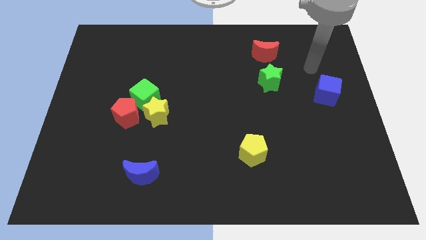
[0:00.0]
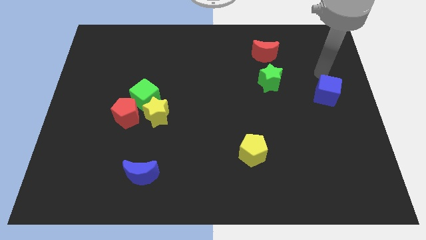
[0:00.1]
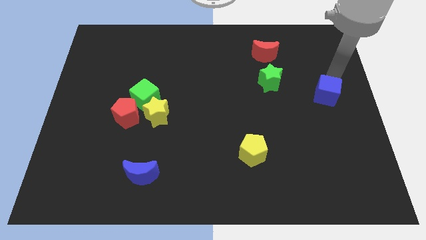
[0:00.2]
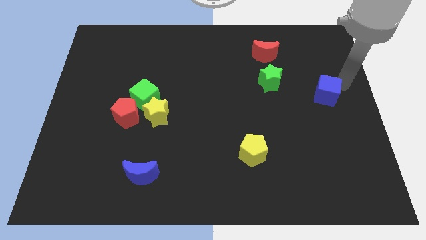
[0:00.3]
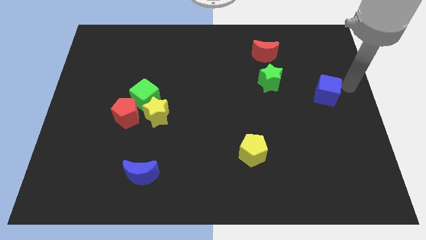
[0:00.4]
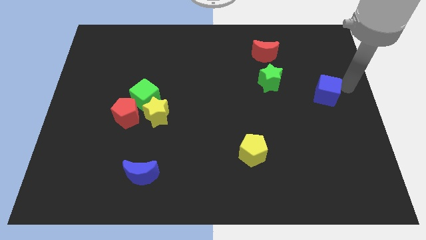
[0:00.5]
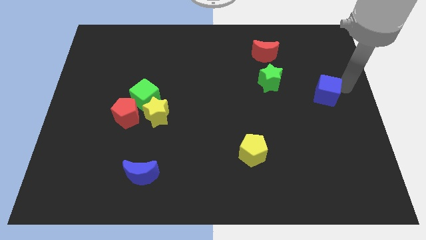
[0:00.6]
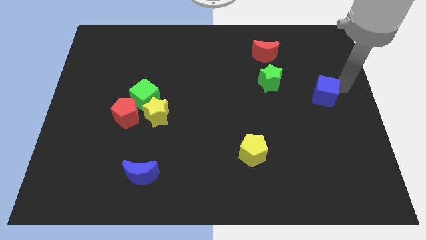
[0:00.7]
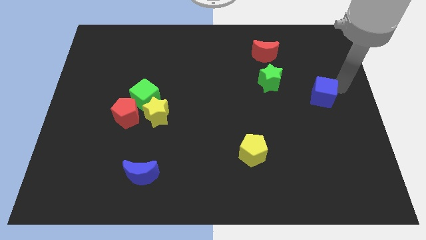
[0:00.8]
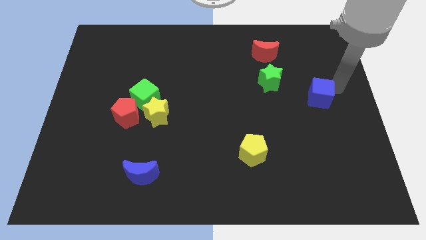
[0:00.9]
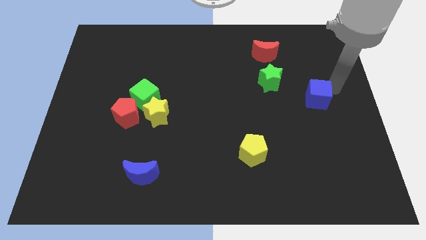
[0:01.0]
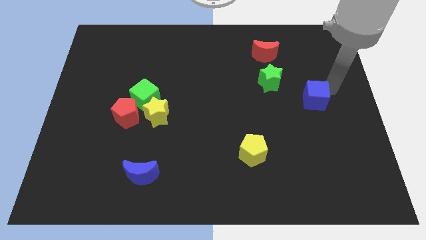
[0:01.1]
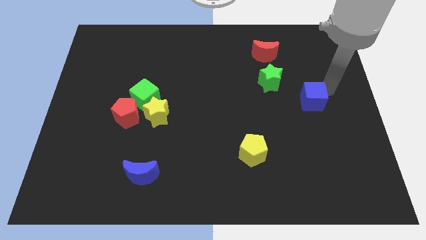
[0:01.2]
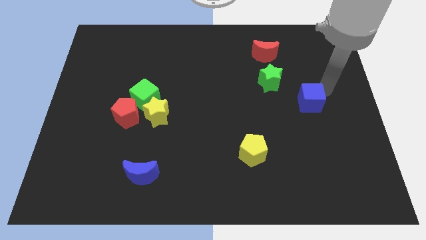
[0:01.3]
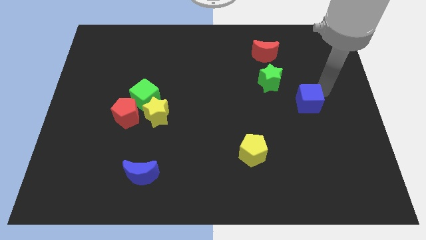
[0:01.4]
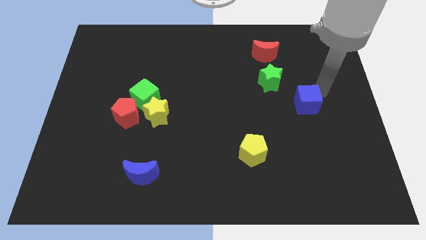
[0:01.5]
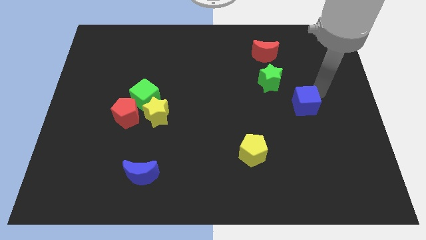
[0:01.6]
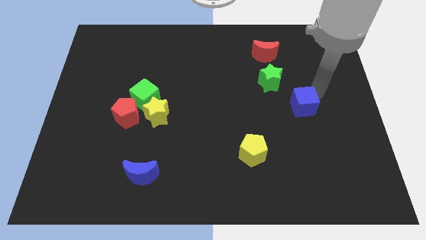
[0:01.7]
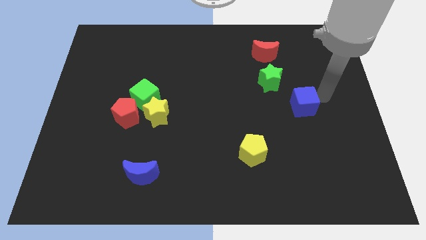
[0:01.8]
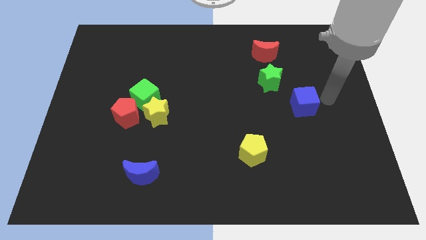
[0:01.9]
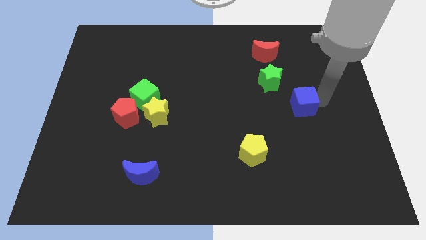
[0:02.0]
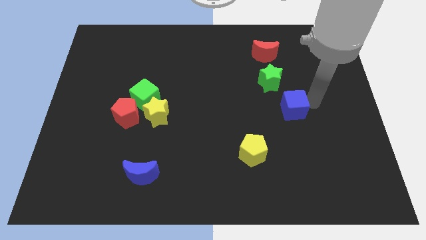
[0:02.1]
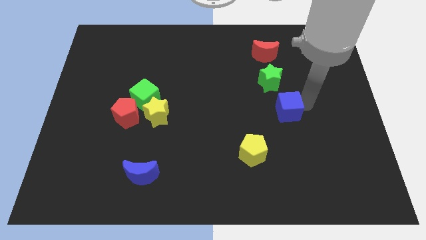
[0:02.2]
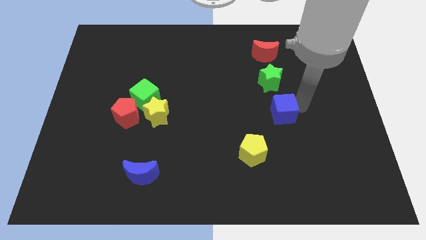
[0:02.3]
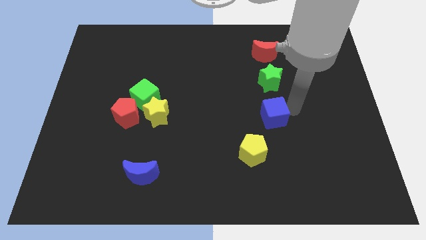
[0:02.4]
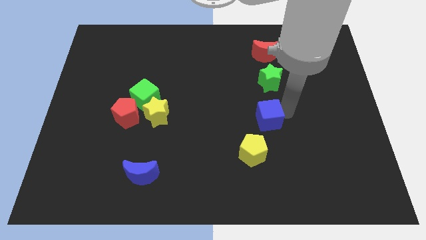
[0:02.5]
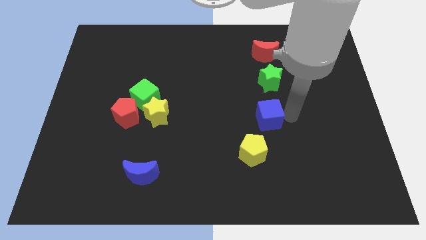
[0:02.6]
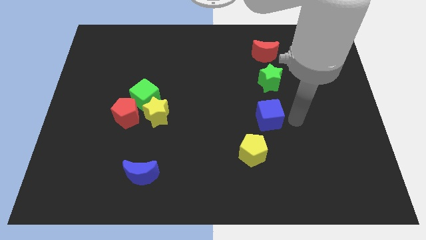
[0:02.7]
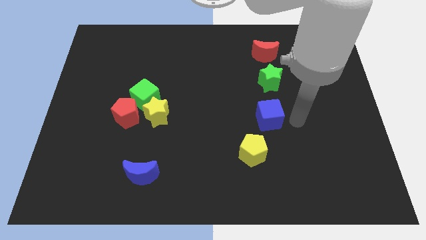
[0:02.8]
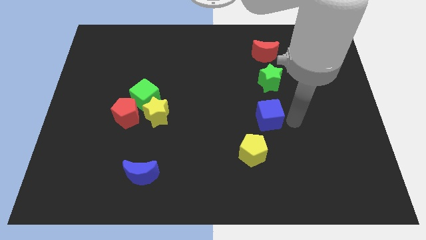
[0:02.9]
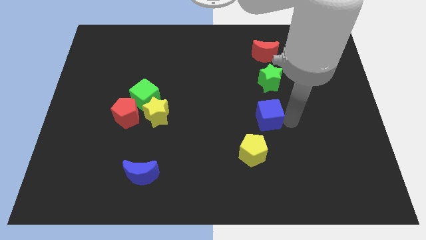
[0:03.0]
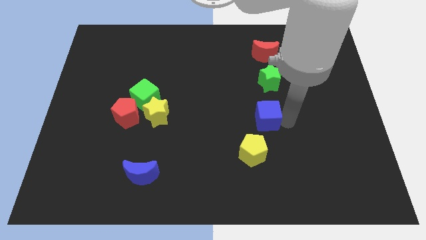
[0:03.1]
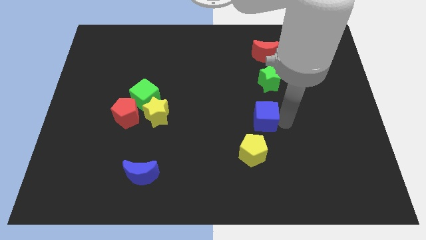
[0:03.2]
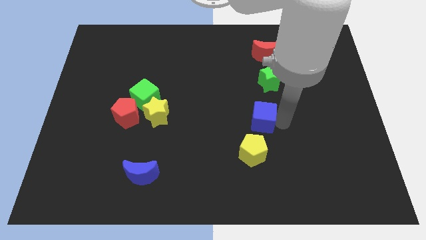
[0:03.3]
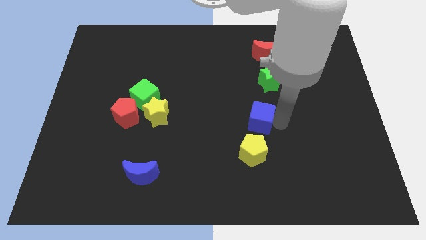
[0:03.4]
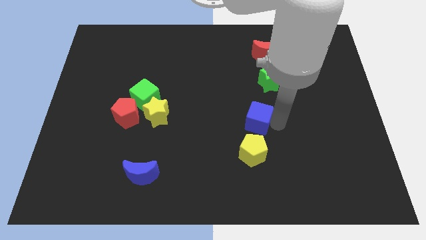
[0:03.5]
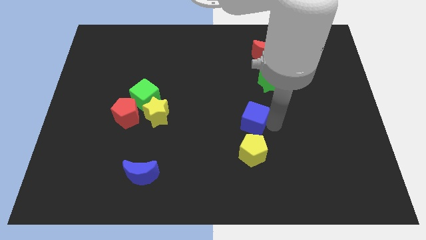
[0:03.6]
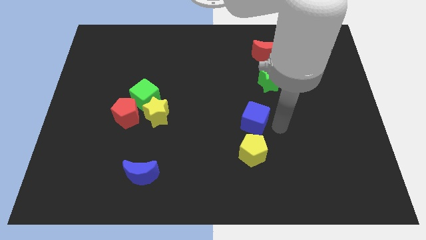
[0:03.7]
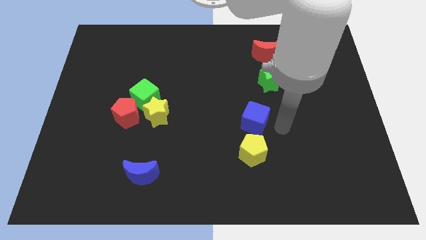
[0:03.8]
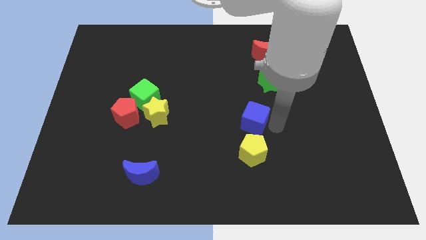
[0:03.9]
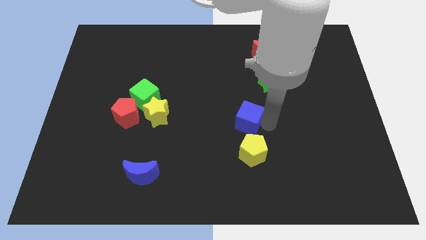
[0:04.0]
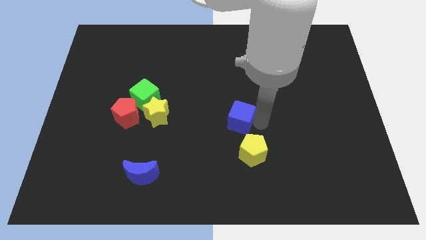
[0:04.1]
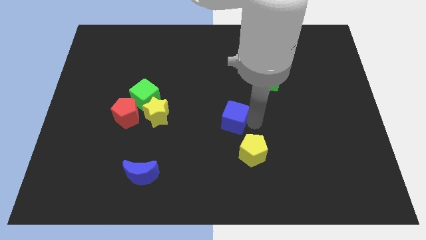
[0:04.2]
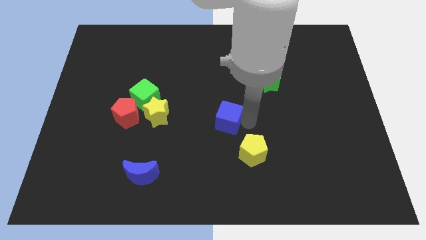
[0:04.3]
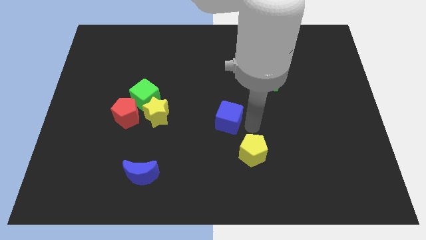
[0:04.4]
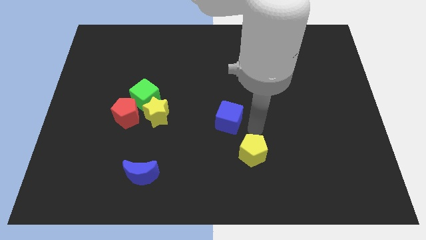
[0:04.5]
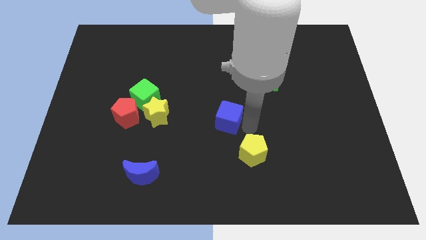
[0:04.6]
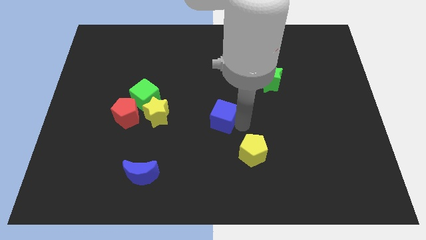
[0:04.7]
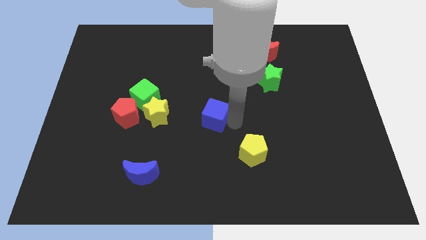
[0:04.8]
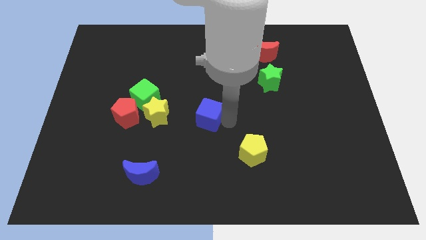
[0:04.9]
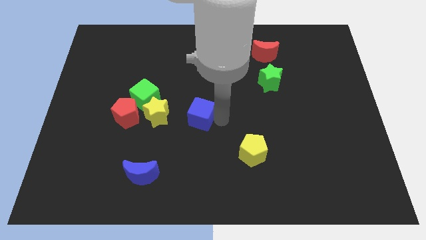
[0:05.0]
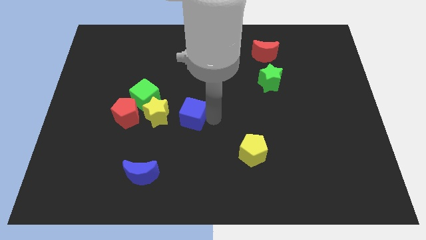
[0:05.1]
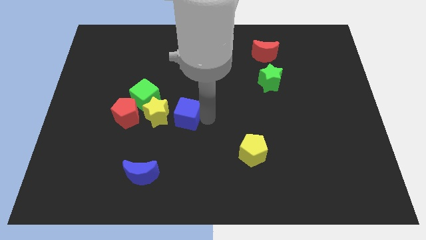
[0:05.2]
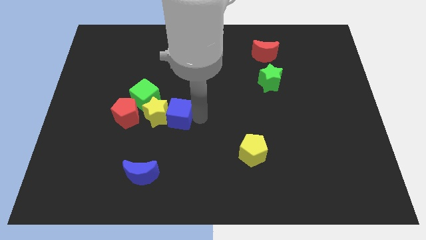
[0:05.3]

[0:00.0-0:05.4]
move the blue cube to the yellow star

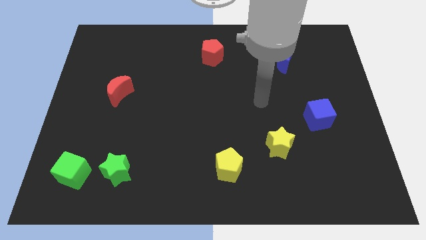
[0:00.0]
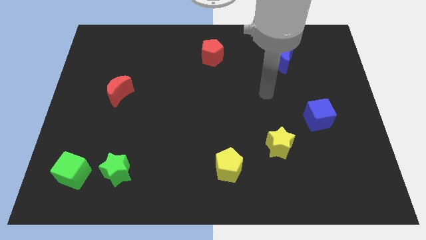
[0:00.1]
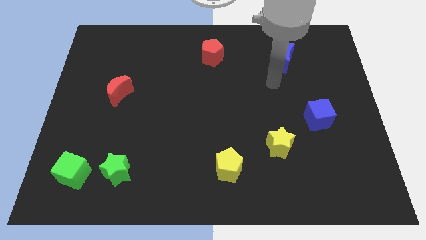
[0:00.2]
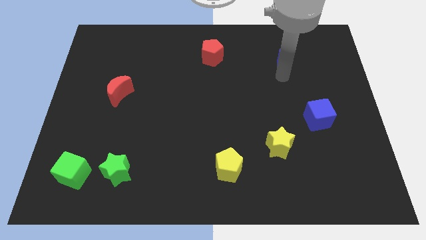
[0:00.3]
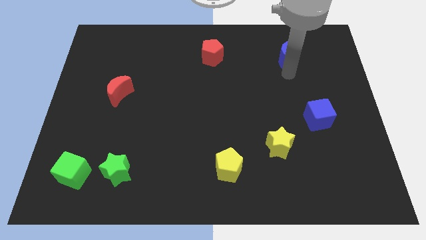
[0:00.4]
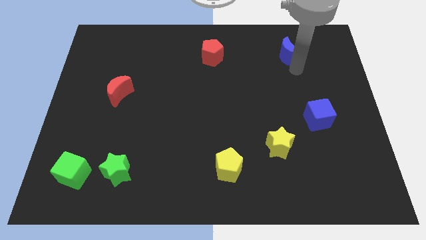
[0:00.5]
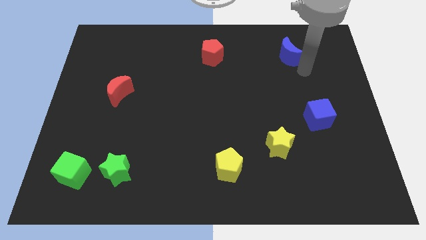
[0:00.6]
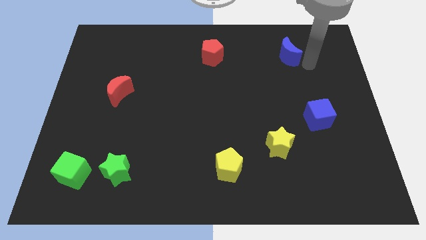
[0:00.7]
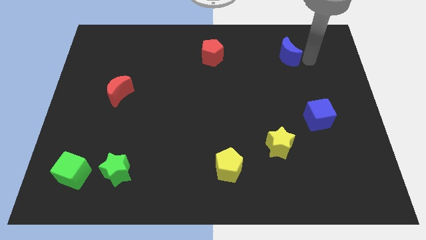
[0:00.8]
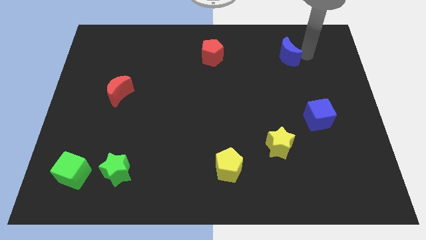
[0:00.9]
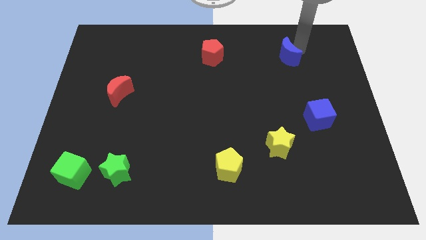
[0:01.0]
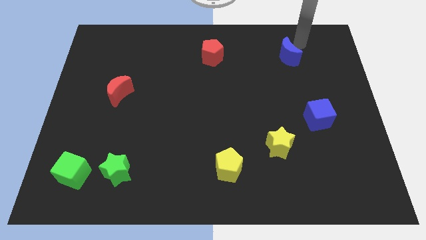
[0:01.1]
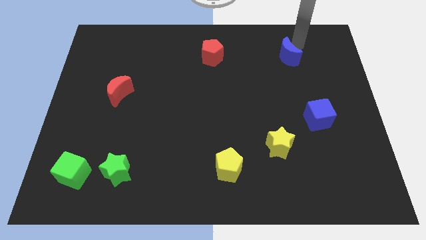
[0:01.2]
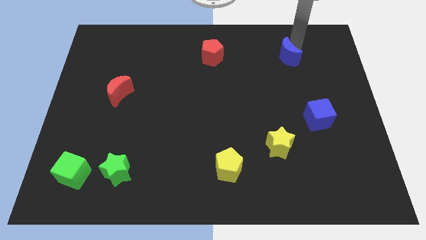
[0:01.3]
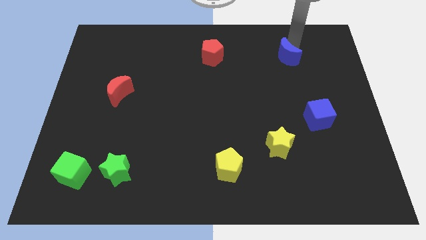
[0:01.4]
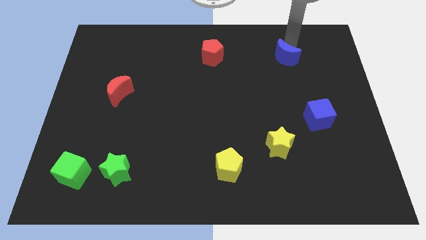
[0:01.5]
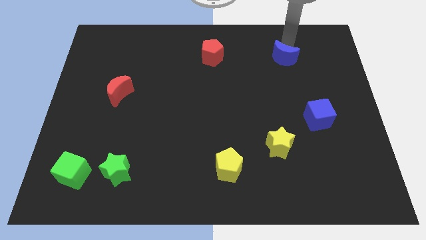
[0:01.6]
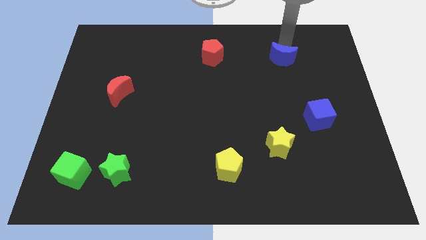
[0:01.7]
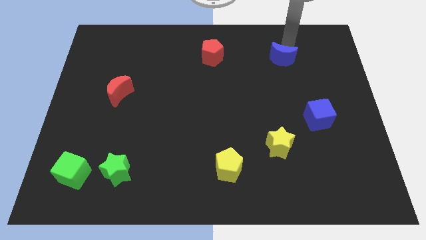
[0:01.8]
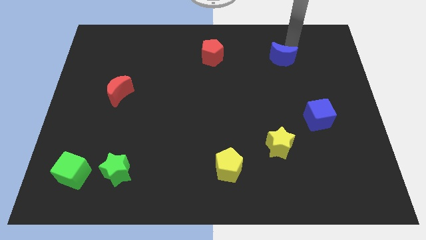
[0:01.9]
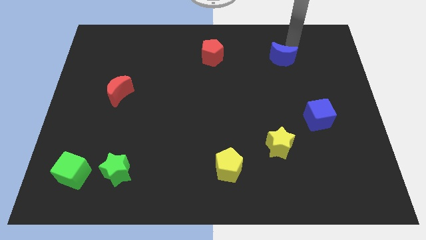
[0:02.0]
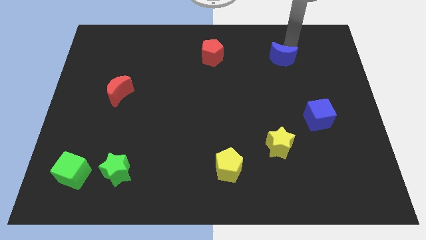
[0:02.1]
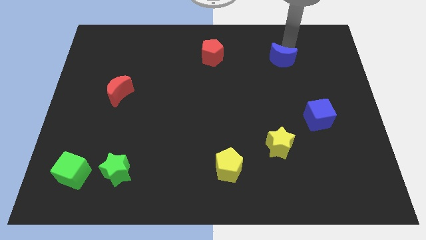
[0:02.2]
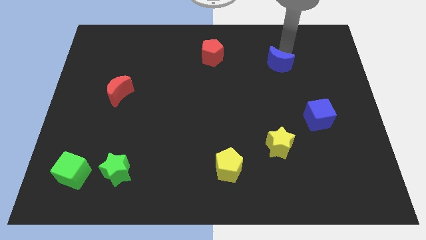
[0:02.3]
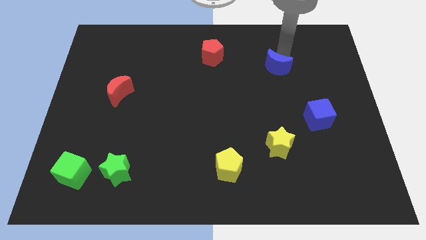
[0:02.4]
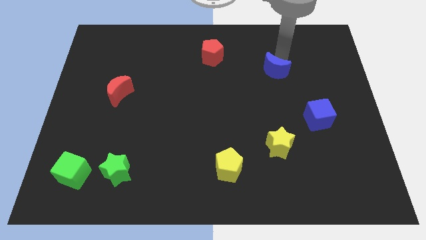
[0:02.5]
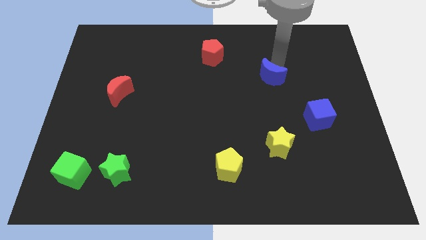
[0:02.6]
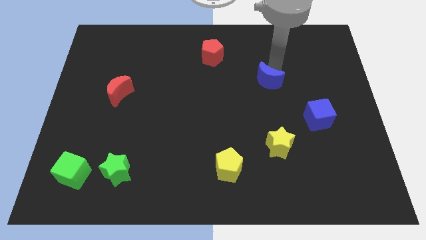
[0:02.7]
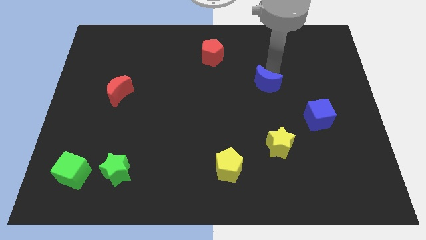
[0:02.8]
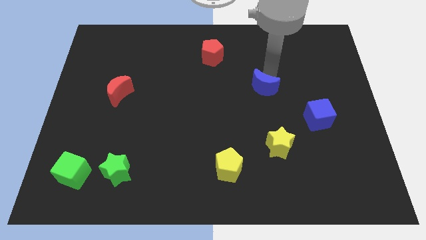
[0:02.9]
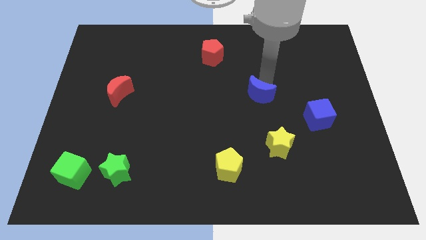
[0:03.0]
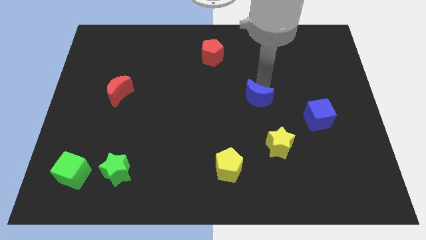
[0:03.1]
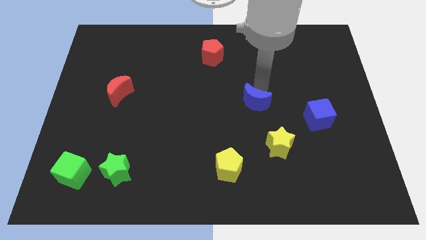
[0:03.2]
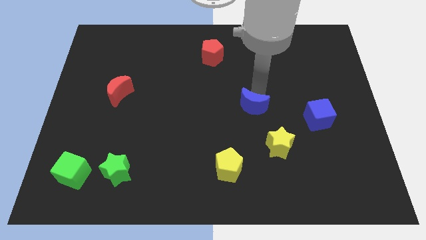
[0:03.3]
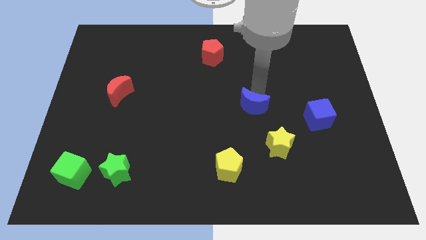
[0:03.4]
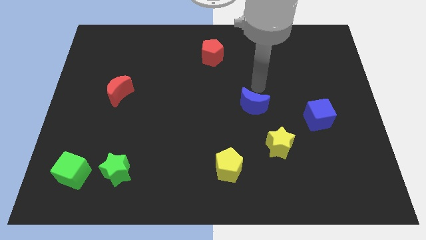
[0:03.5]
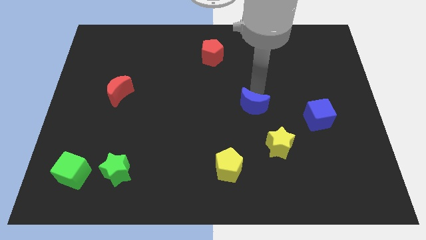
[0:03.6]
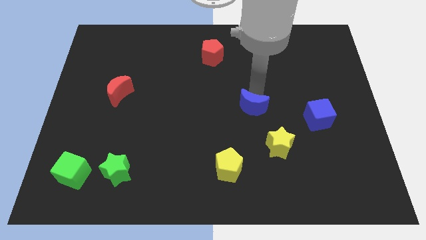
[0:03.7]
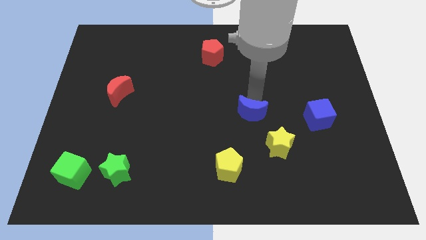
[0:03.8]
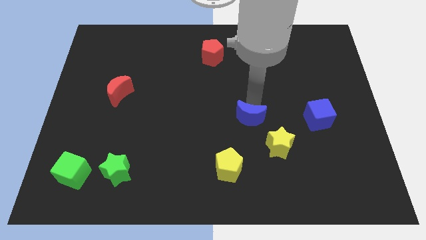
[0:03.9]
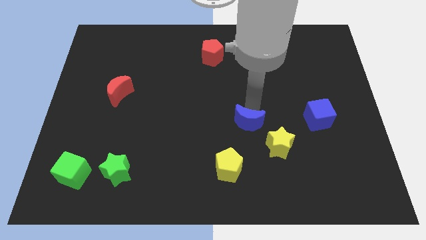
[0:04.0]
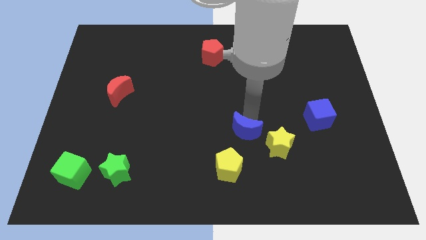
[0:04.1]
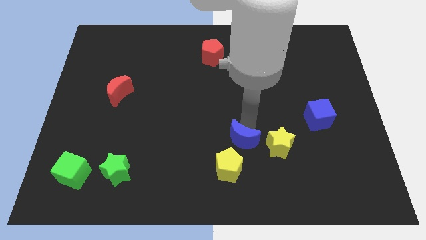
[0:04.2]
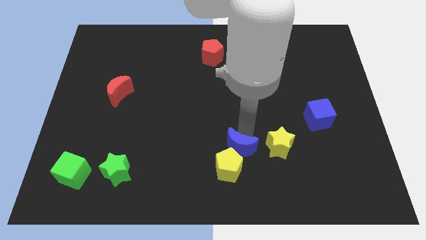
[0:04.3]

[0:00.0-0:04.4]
put the blue moon to the yellow pentagon
